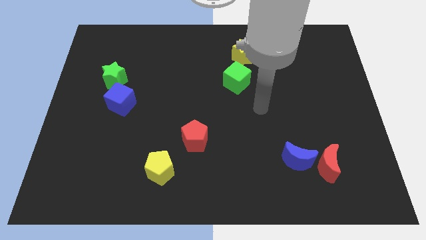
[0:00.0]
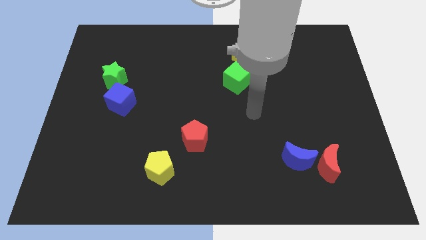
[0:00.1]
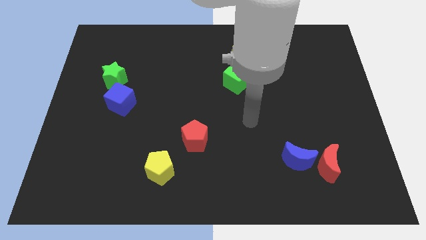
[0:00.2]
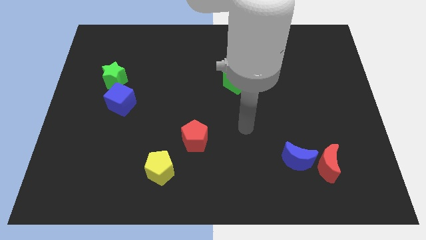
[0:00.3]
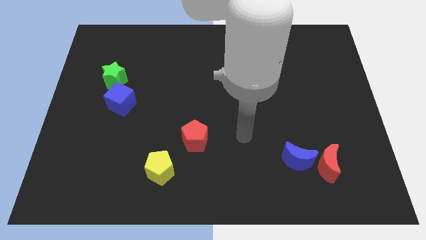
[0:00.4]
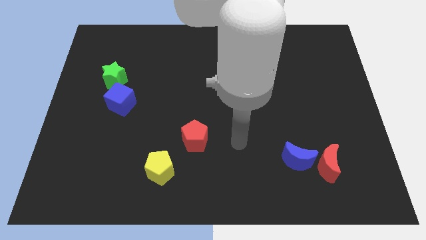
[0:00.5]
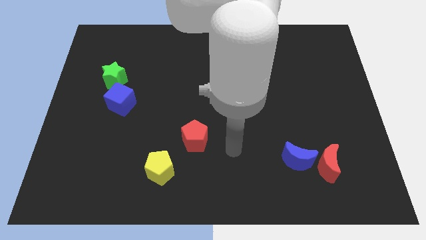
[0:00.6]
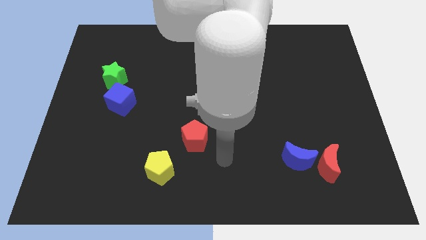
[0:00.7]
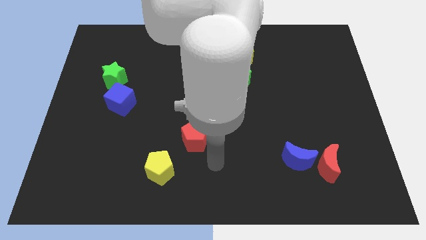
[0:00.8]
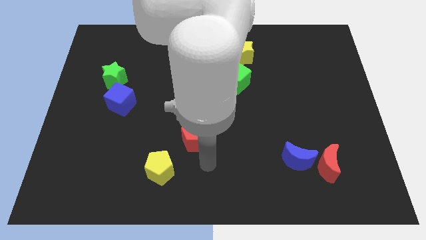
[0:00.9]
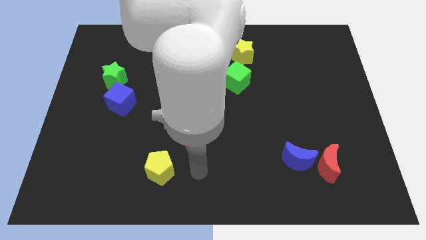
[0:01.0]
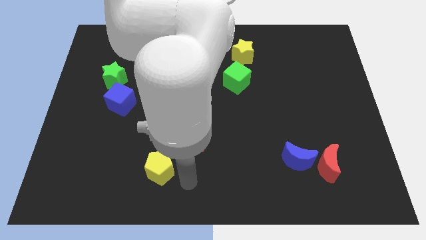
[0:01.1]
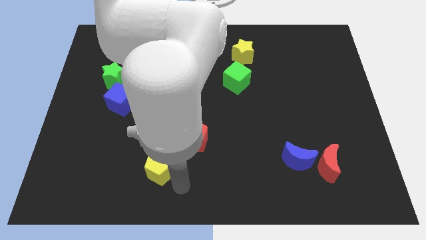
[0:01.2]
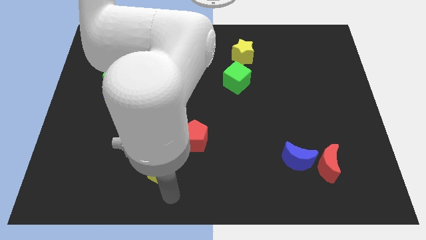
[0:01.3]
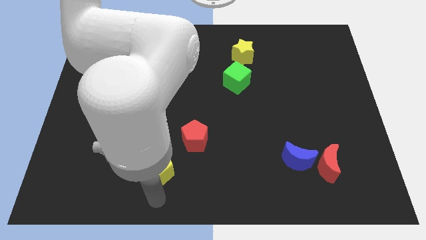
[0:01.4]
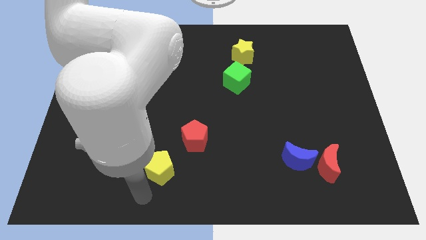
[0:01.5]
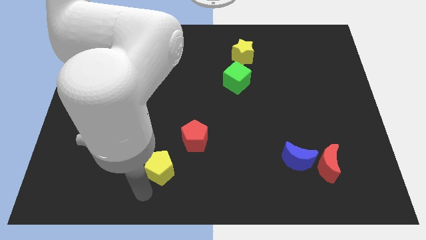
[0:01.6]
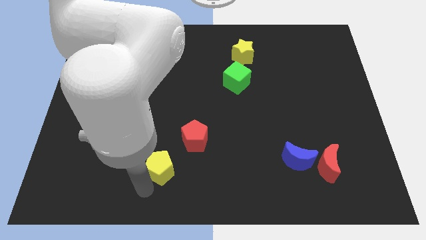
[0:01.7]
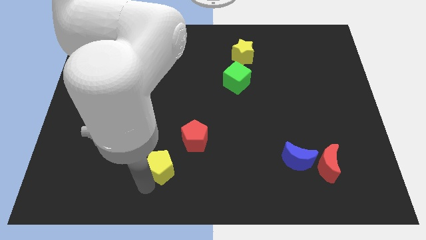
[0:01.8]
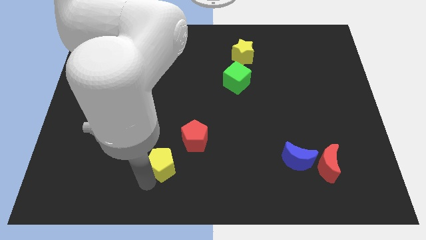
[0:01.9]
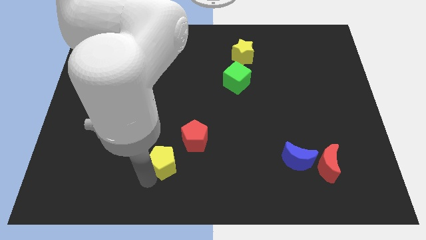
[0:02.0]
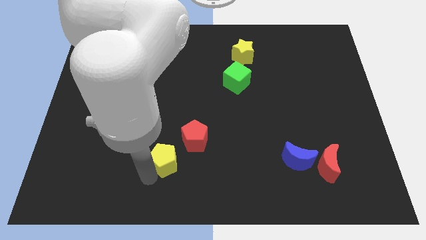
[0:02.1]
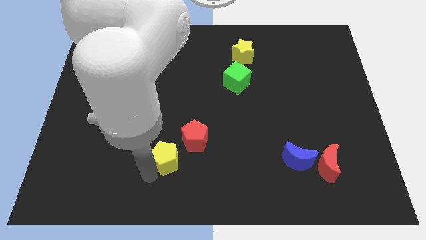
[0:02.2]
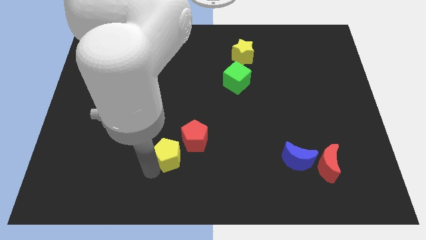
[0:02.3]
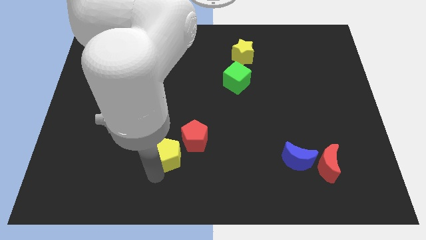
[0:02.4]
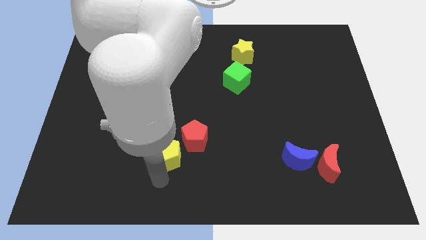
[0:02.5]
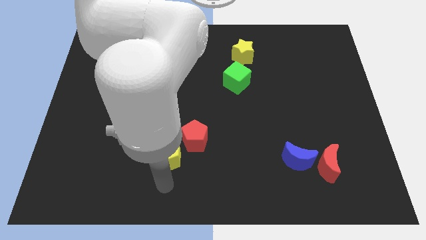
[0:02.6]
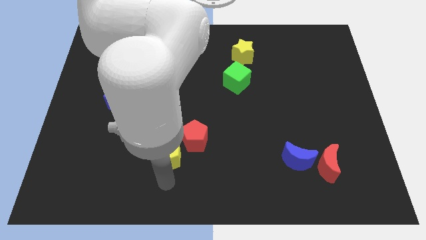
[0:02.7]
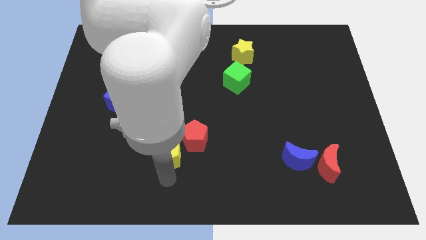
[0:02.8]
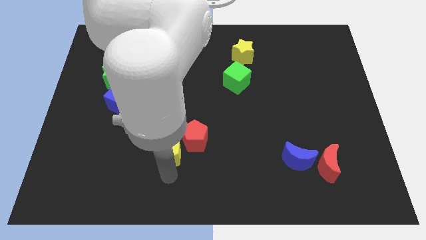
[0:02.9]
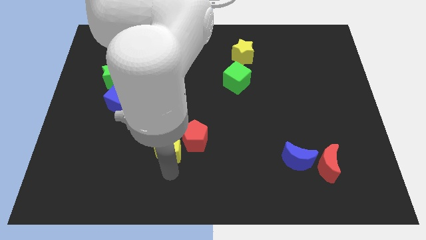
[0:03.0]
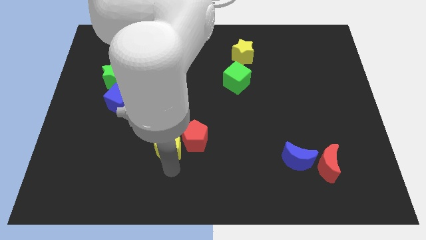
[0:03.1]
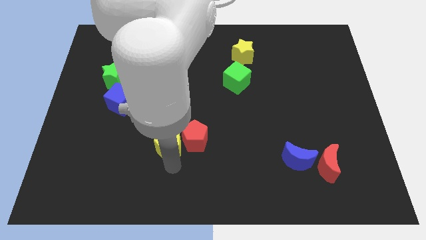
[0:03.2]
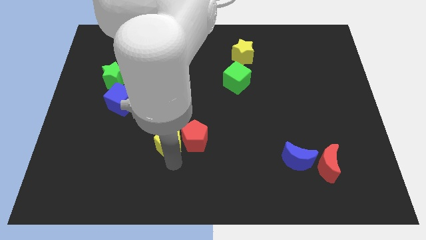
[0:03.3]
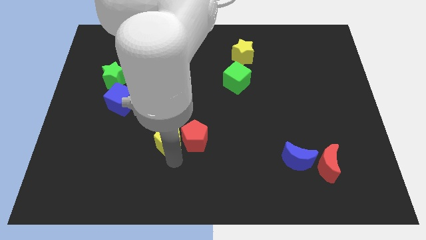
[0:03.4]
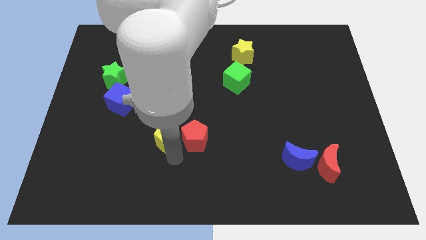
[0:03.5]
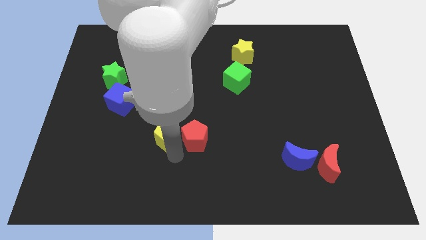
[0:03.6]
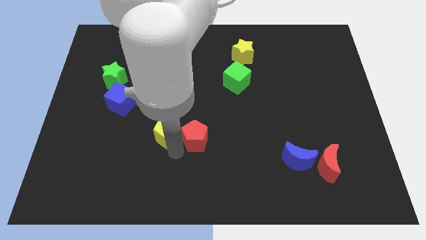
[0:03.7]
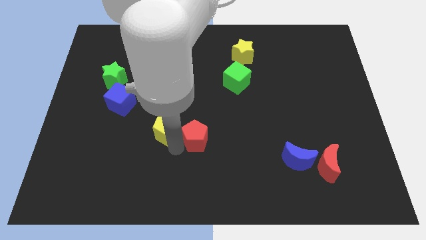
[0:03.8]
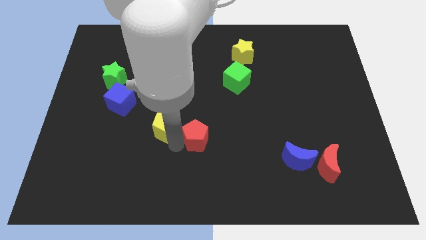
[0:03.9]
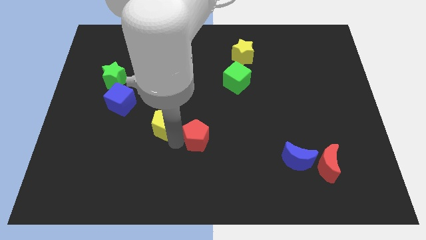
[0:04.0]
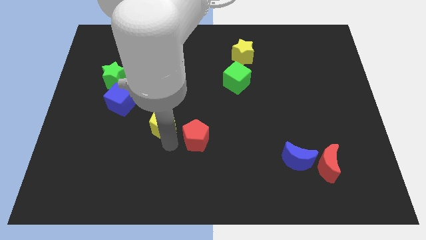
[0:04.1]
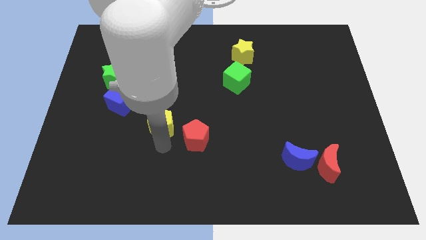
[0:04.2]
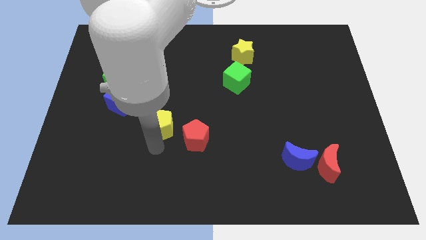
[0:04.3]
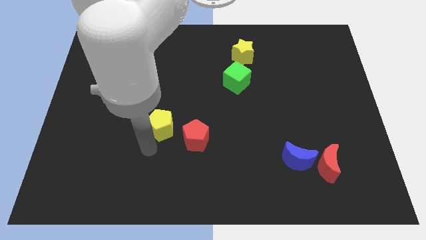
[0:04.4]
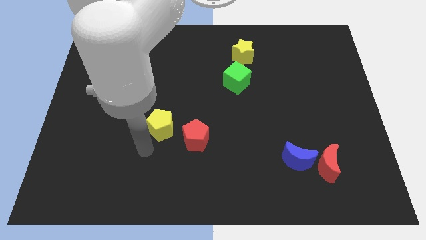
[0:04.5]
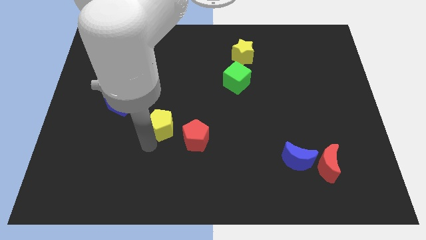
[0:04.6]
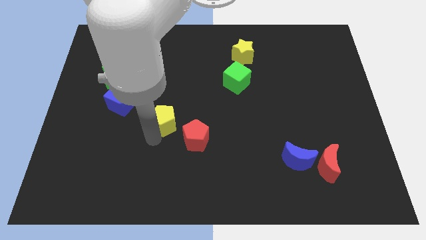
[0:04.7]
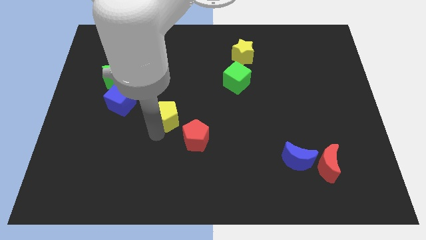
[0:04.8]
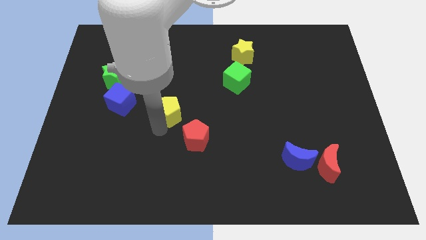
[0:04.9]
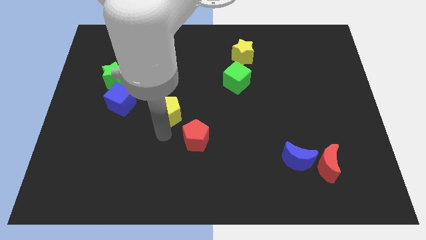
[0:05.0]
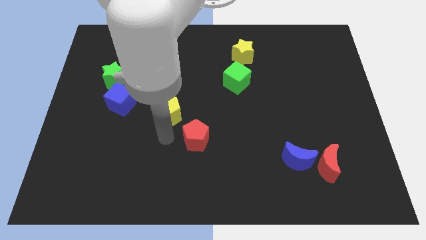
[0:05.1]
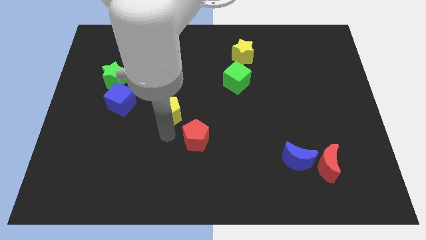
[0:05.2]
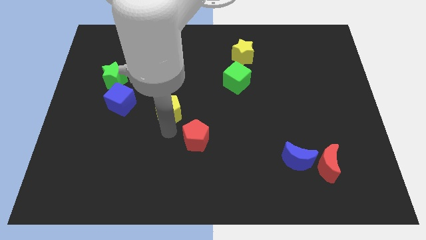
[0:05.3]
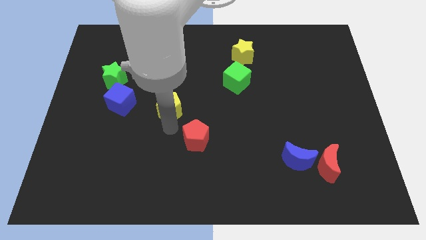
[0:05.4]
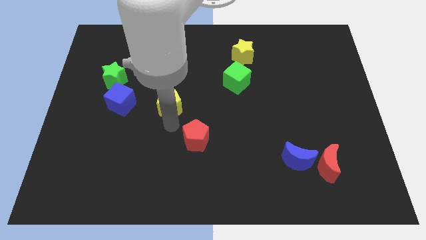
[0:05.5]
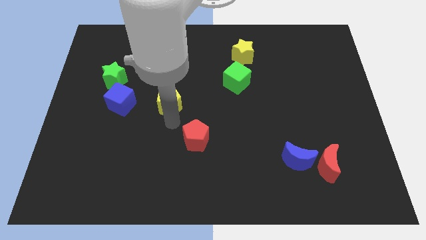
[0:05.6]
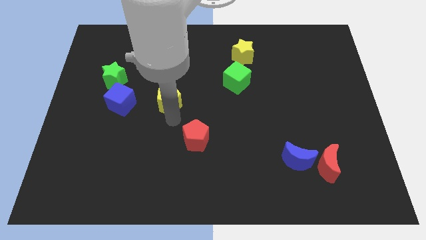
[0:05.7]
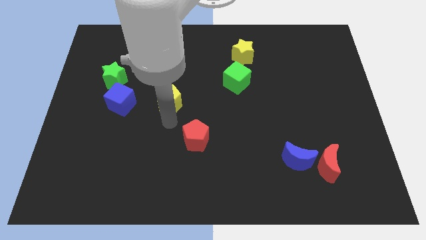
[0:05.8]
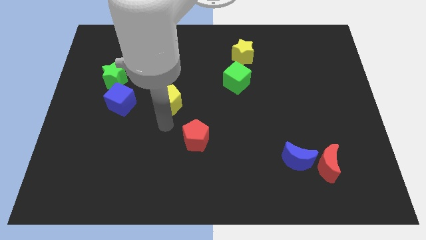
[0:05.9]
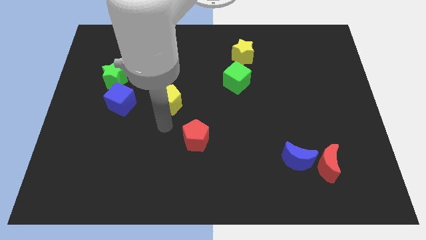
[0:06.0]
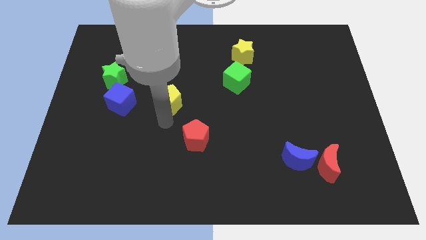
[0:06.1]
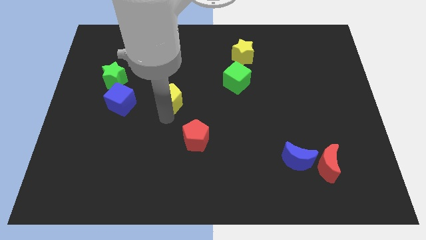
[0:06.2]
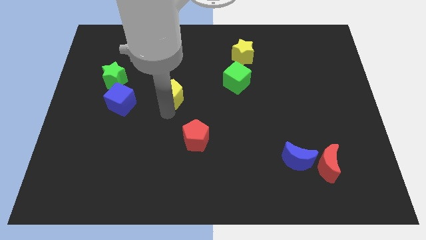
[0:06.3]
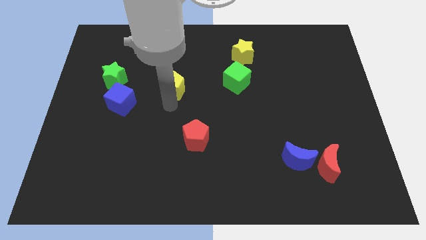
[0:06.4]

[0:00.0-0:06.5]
move the yellow pentagon upwards

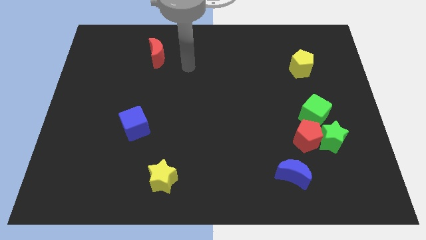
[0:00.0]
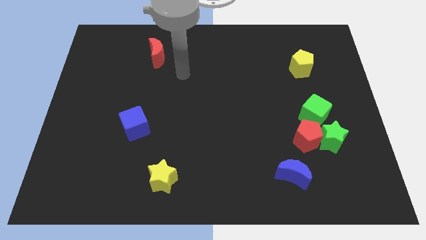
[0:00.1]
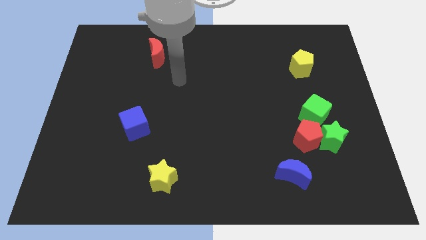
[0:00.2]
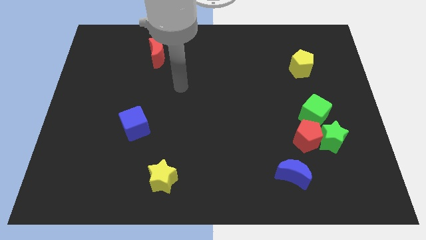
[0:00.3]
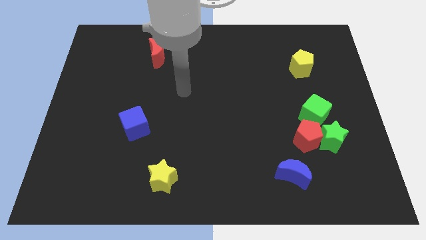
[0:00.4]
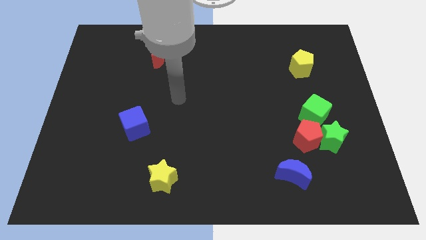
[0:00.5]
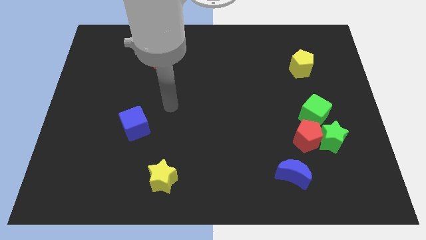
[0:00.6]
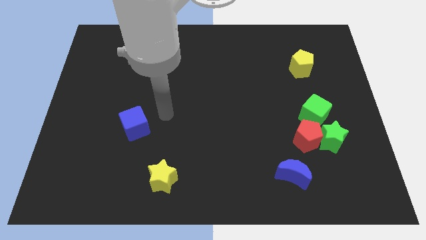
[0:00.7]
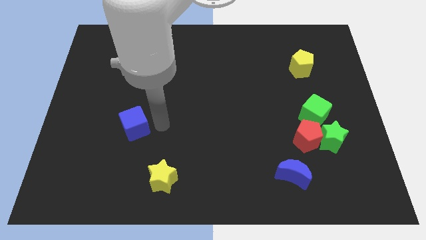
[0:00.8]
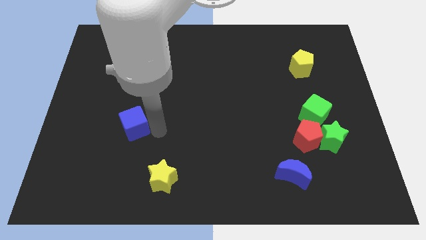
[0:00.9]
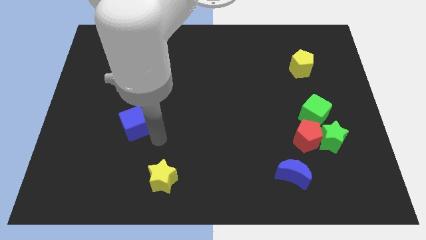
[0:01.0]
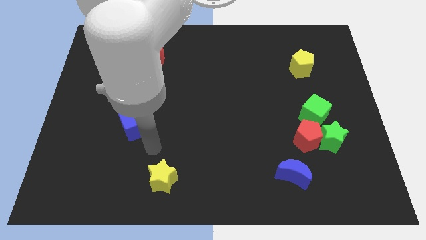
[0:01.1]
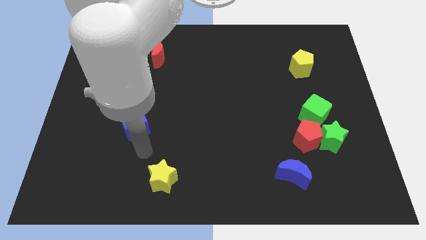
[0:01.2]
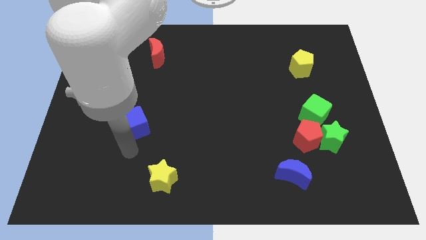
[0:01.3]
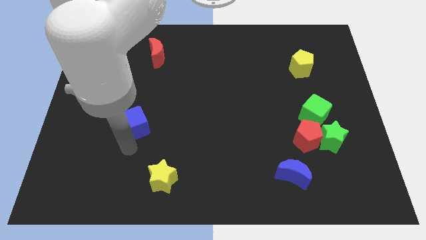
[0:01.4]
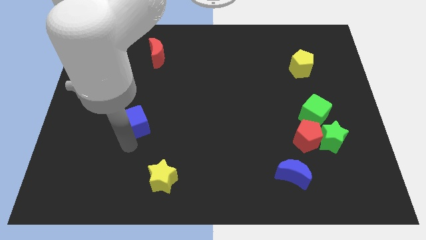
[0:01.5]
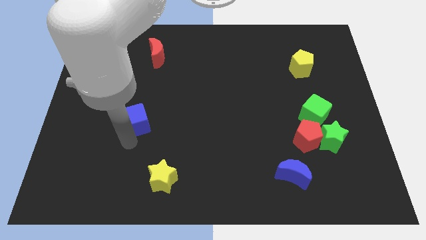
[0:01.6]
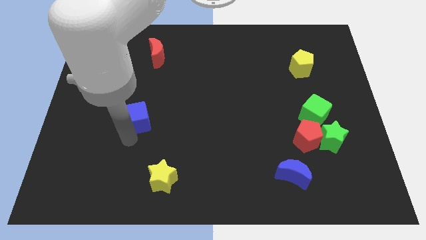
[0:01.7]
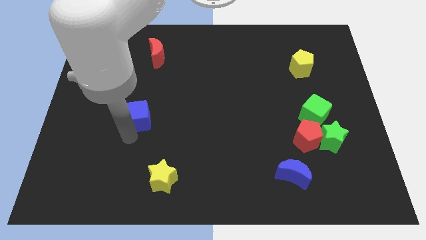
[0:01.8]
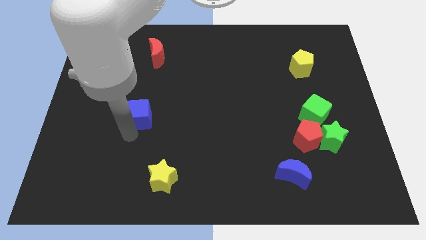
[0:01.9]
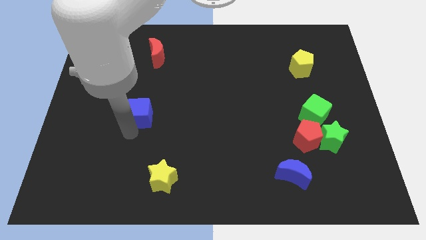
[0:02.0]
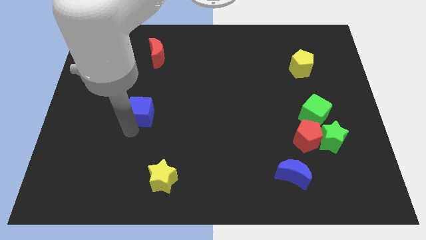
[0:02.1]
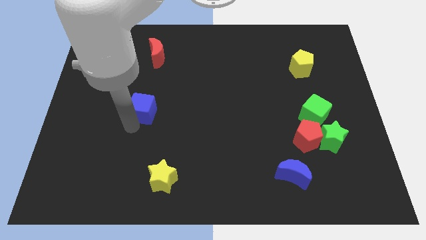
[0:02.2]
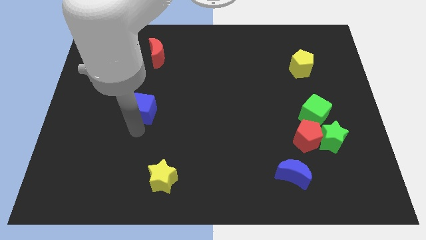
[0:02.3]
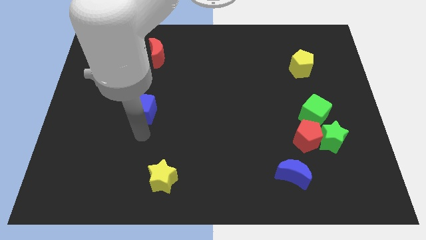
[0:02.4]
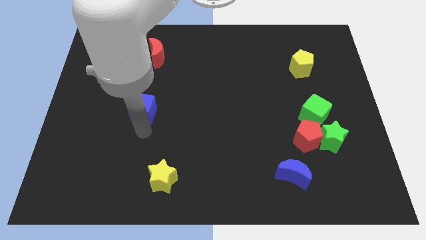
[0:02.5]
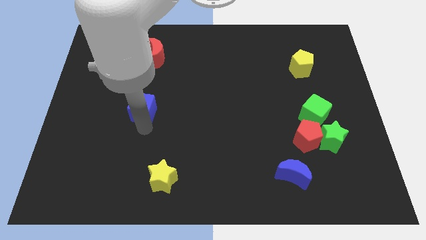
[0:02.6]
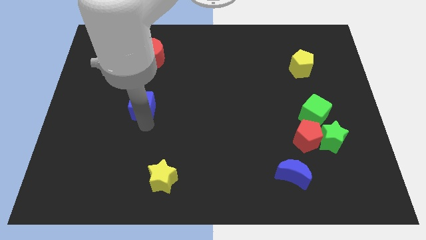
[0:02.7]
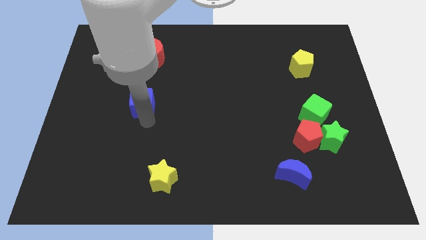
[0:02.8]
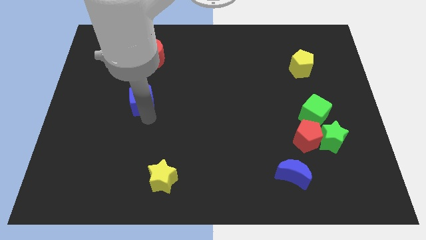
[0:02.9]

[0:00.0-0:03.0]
slide the blue cube a little up
